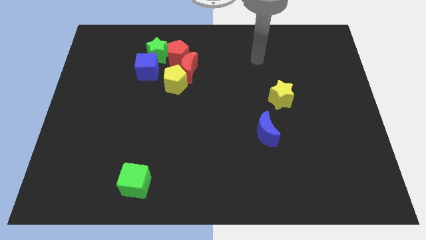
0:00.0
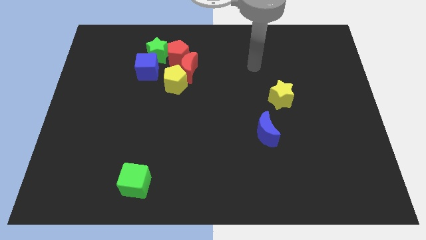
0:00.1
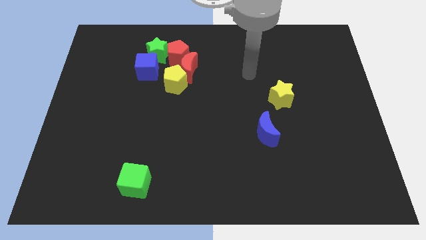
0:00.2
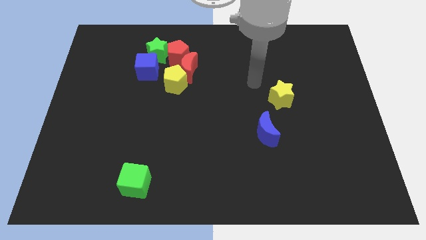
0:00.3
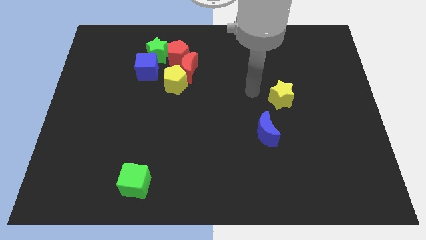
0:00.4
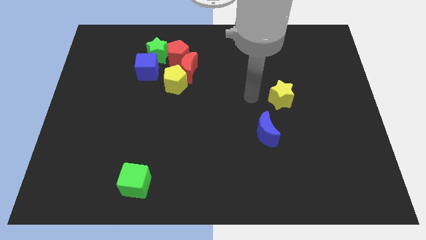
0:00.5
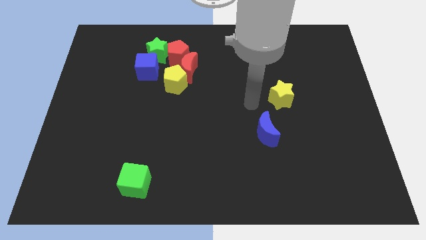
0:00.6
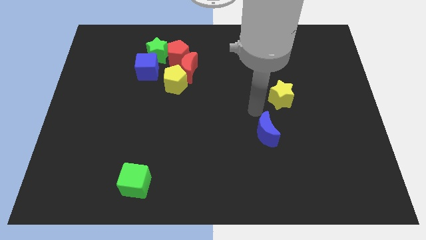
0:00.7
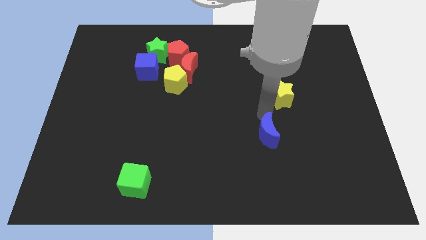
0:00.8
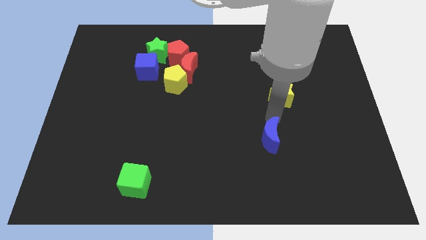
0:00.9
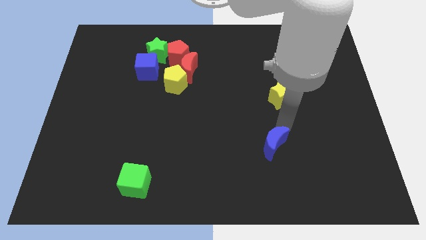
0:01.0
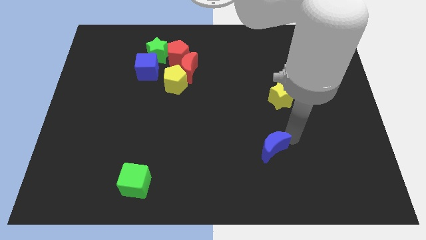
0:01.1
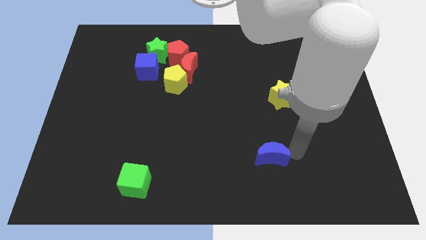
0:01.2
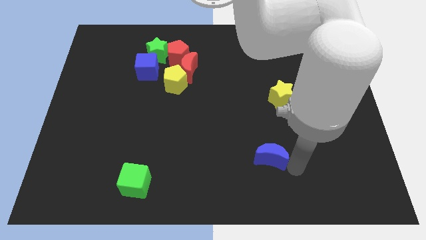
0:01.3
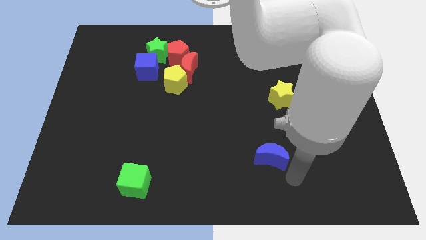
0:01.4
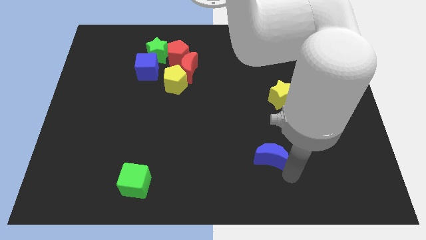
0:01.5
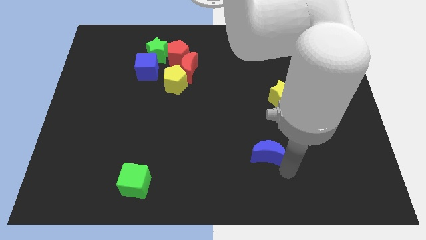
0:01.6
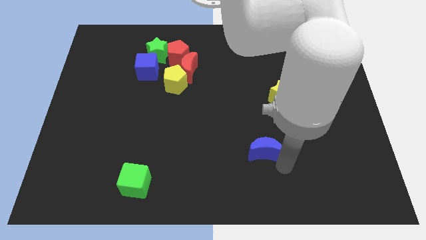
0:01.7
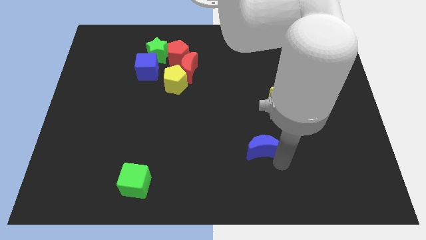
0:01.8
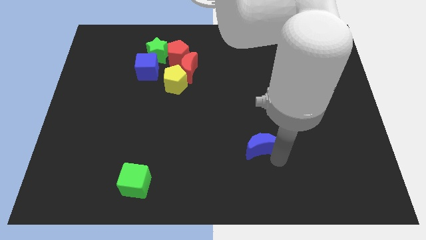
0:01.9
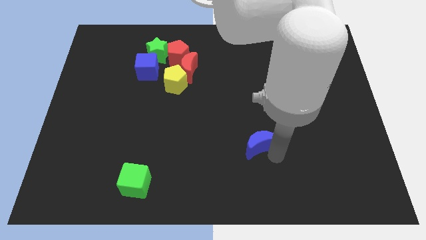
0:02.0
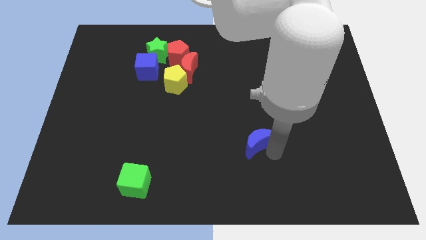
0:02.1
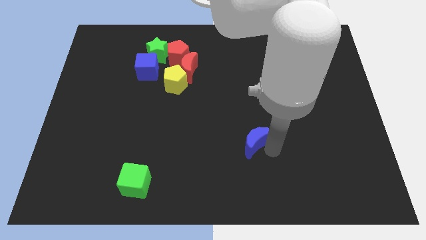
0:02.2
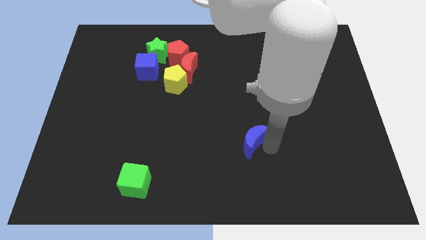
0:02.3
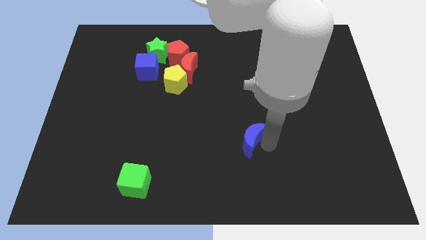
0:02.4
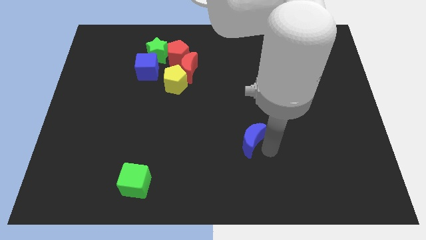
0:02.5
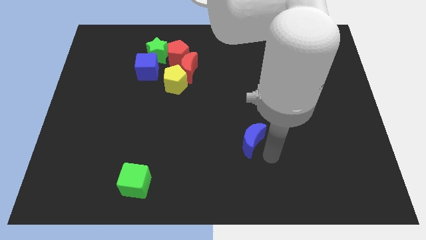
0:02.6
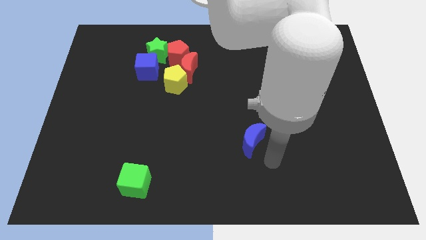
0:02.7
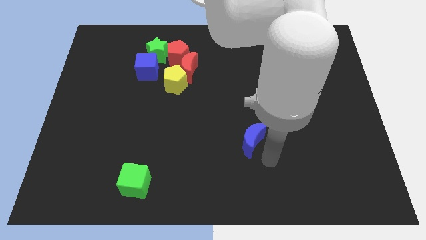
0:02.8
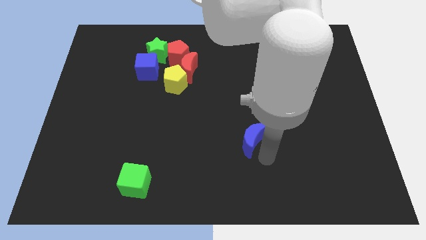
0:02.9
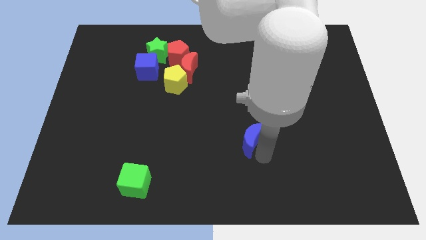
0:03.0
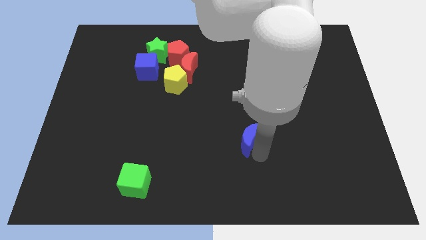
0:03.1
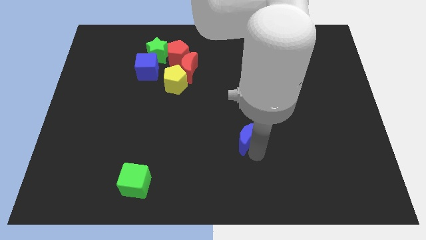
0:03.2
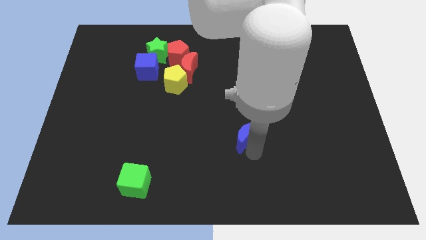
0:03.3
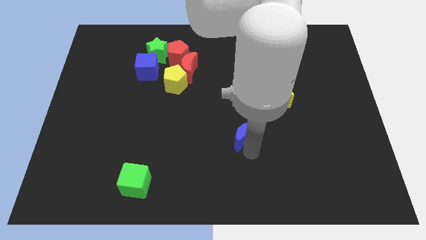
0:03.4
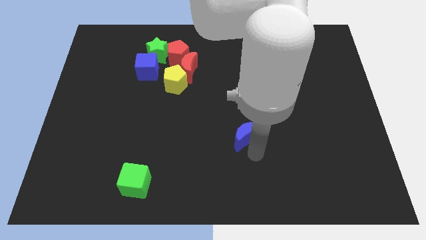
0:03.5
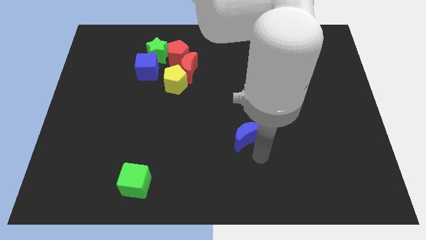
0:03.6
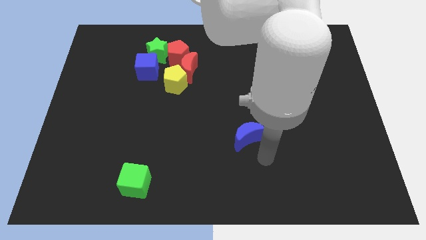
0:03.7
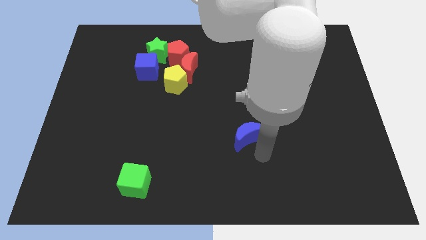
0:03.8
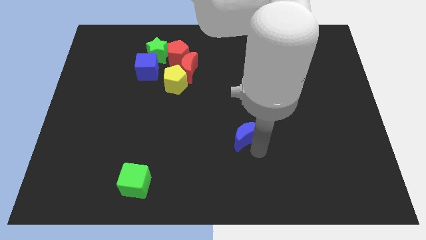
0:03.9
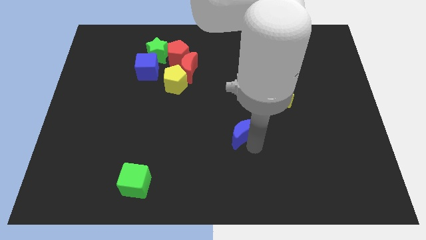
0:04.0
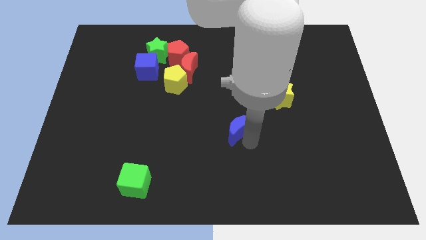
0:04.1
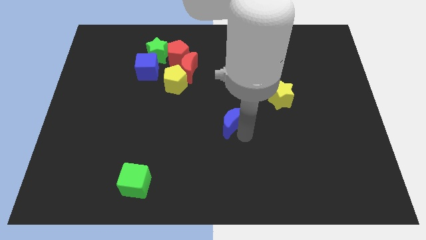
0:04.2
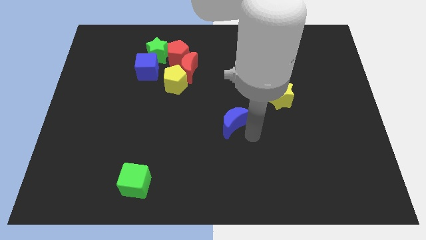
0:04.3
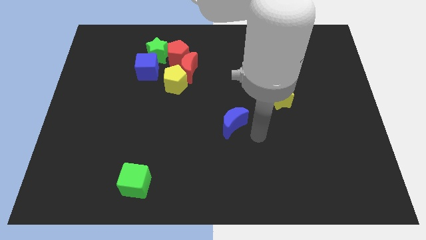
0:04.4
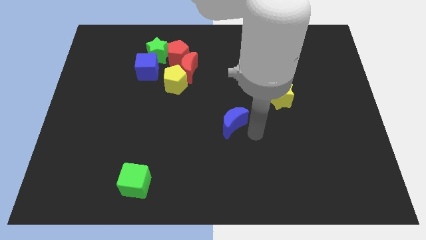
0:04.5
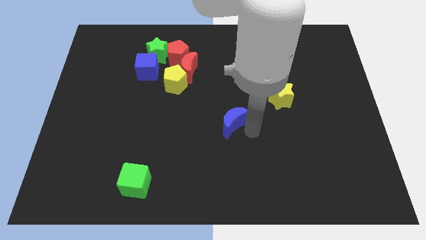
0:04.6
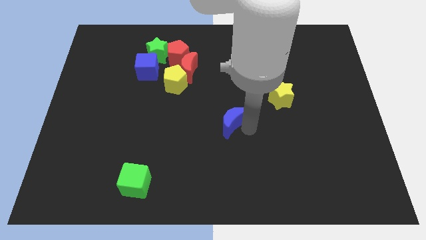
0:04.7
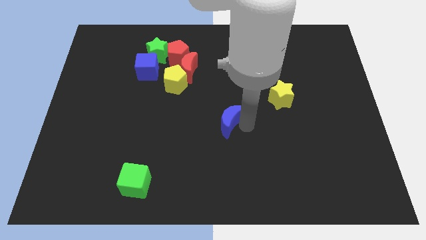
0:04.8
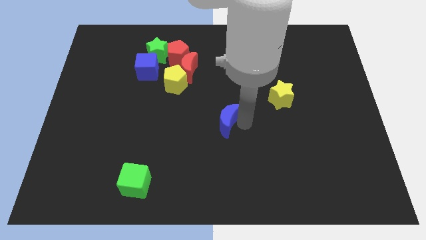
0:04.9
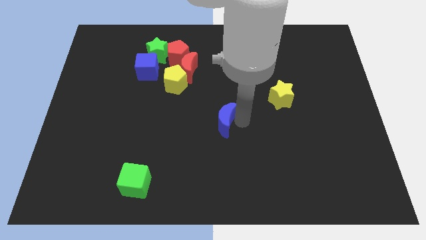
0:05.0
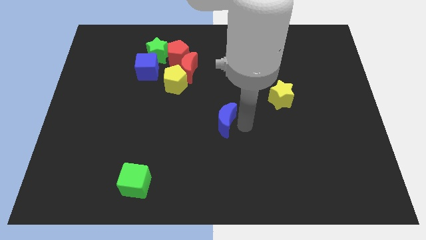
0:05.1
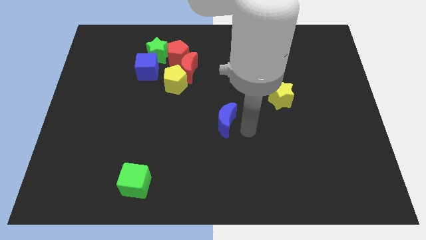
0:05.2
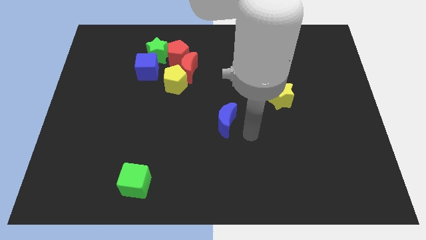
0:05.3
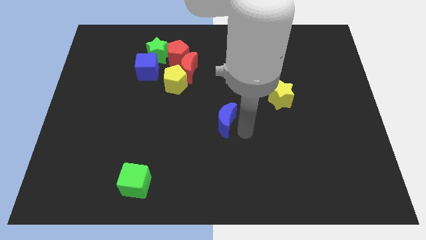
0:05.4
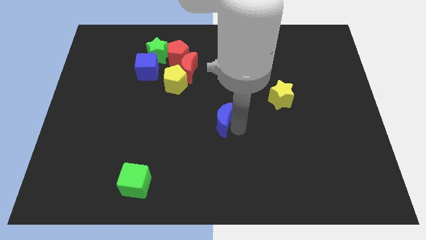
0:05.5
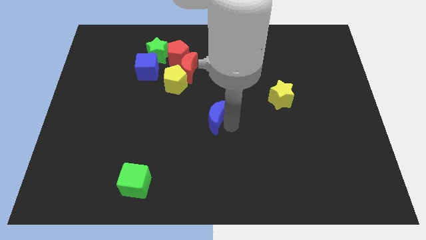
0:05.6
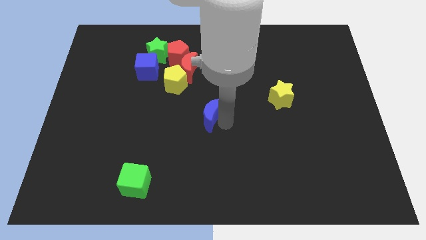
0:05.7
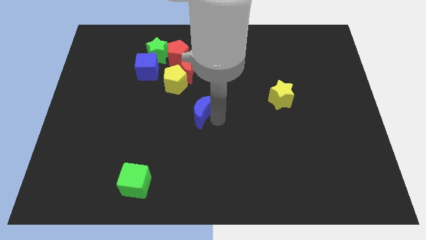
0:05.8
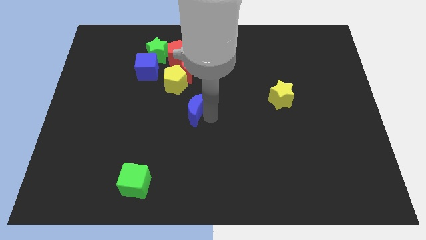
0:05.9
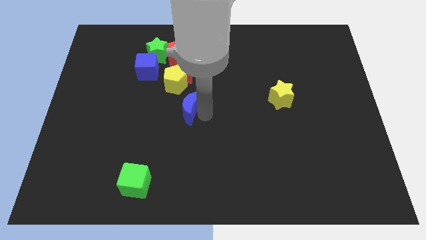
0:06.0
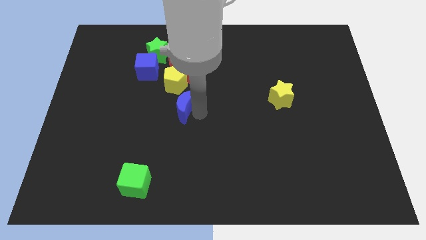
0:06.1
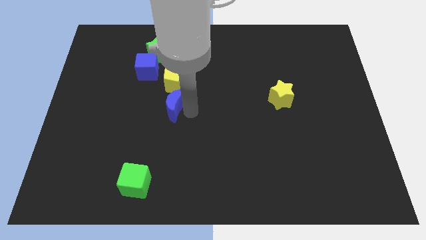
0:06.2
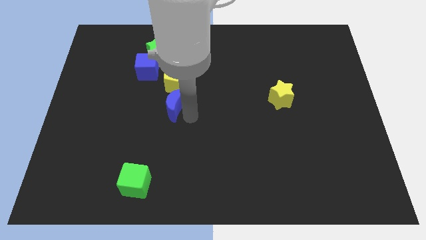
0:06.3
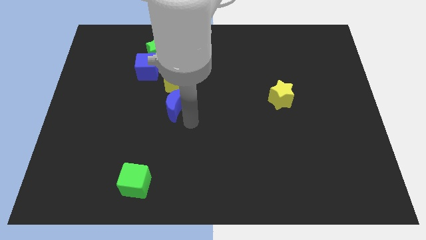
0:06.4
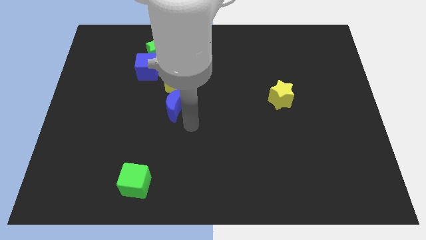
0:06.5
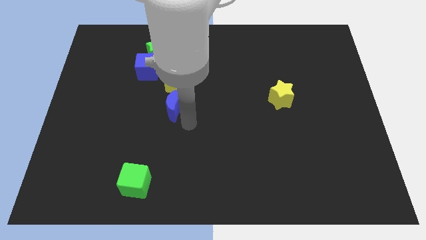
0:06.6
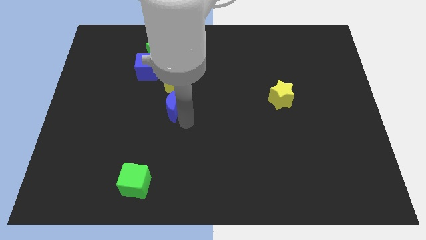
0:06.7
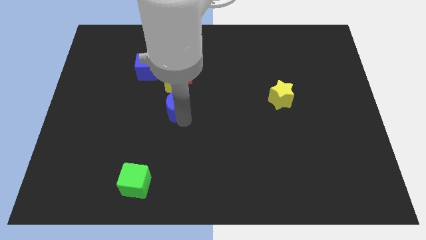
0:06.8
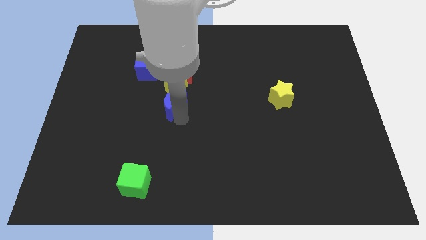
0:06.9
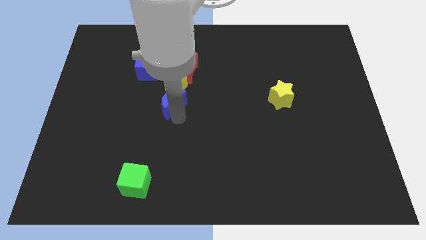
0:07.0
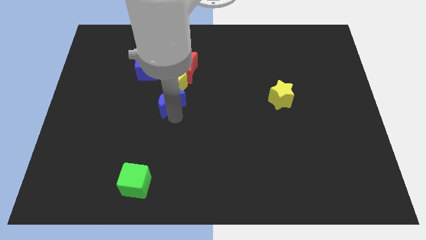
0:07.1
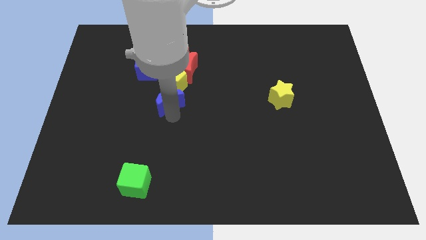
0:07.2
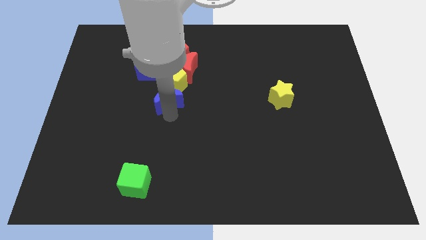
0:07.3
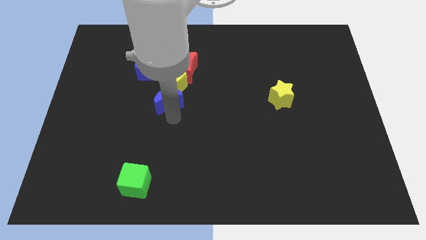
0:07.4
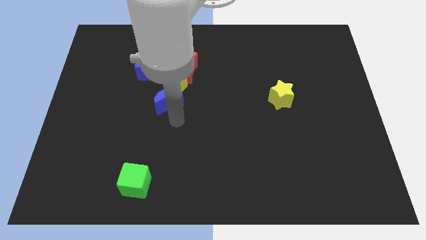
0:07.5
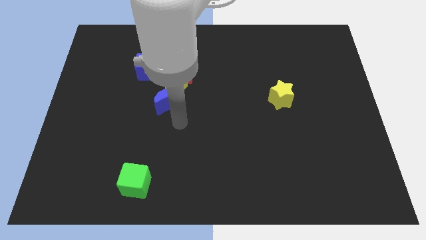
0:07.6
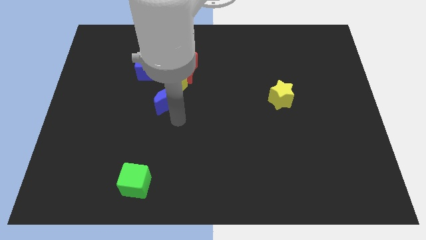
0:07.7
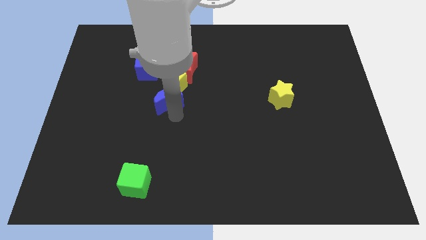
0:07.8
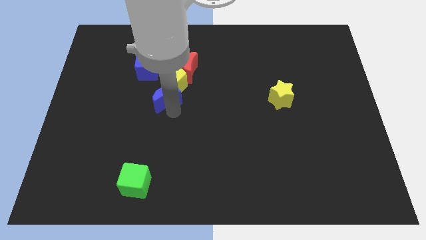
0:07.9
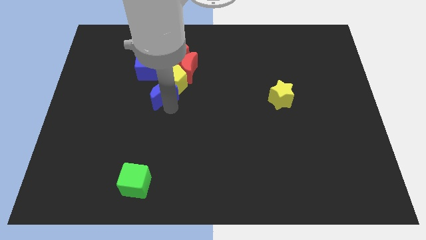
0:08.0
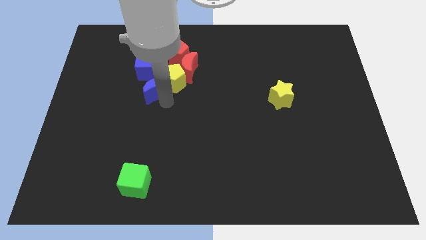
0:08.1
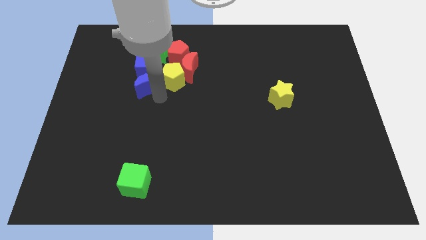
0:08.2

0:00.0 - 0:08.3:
push the blue moon close to the blue cube
